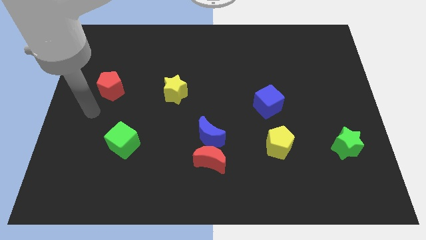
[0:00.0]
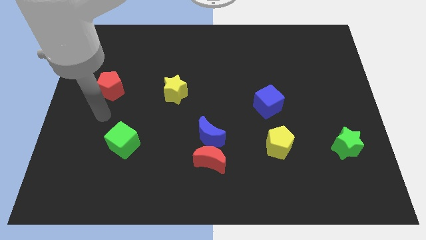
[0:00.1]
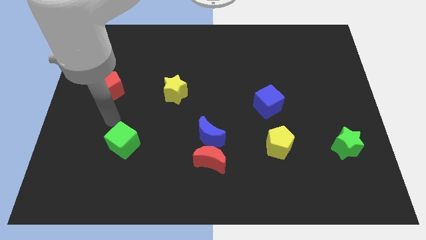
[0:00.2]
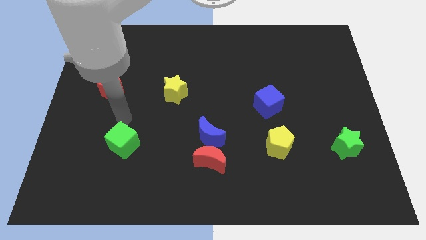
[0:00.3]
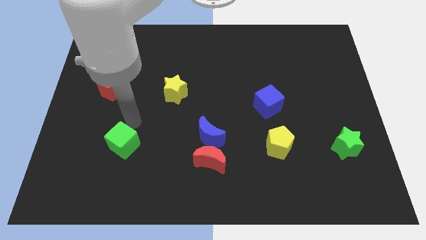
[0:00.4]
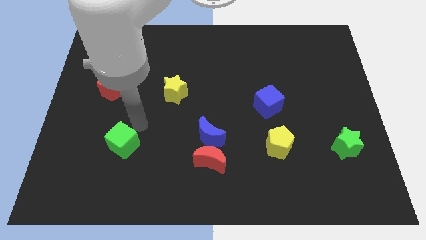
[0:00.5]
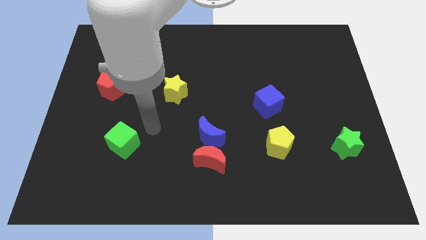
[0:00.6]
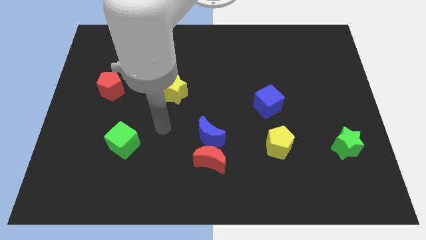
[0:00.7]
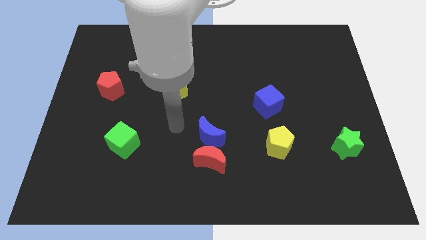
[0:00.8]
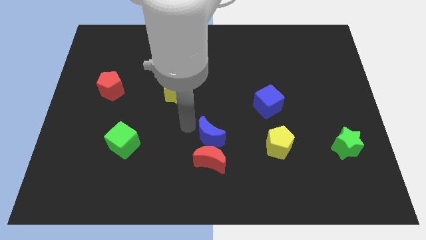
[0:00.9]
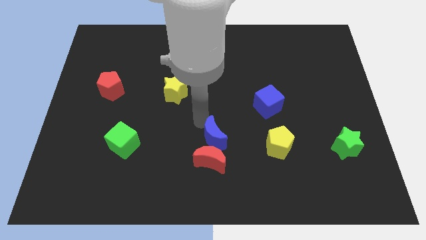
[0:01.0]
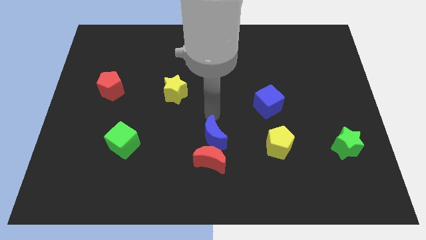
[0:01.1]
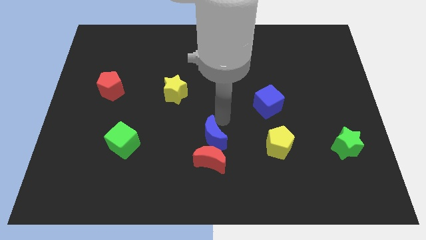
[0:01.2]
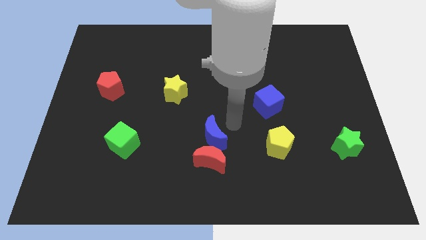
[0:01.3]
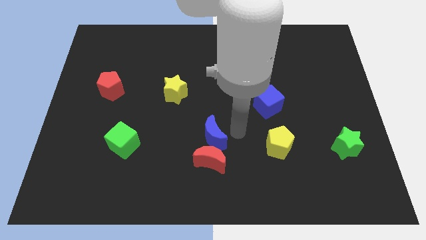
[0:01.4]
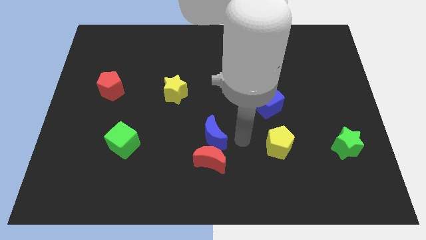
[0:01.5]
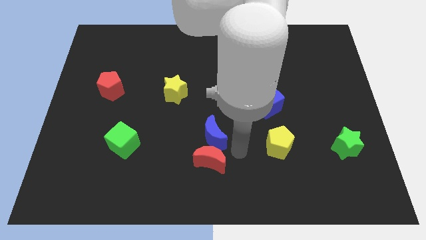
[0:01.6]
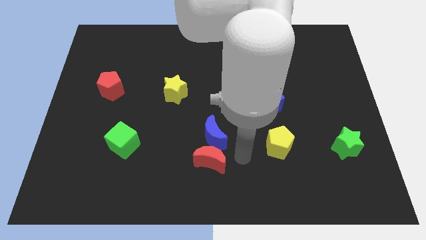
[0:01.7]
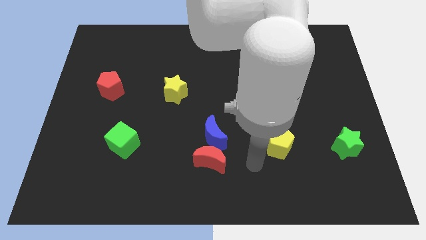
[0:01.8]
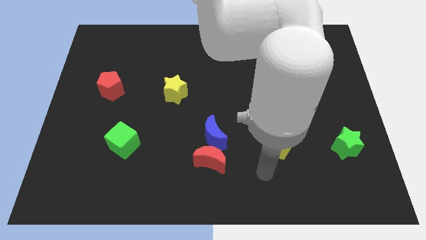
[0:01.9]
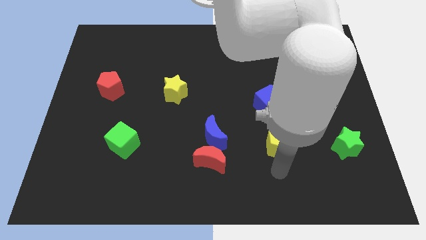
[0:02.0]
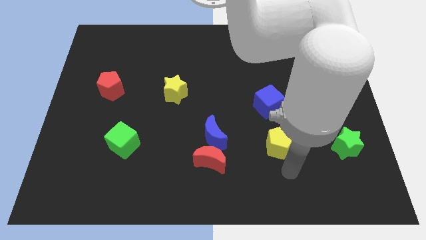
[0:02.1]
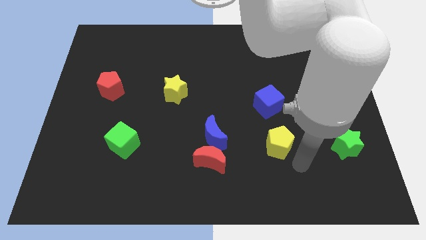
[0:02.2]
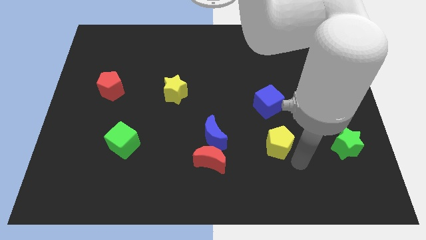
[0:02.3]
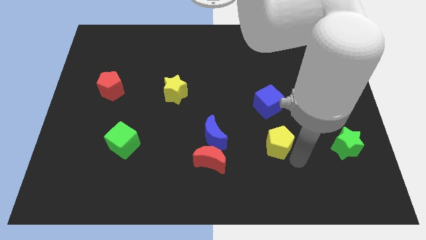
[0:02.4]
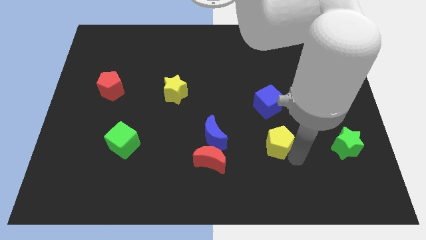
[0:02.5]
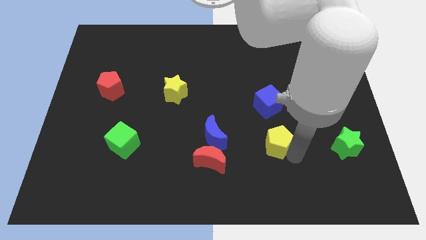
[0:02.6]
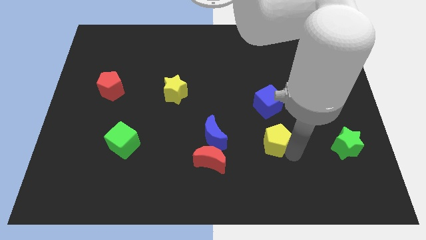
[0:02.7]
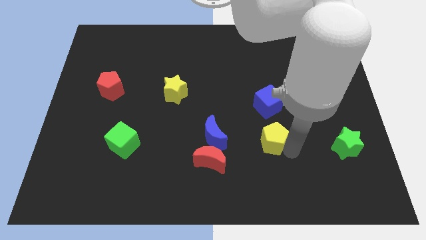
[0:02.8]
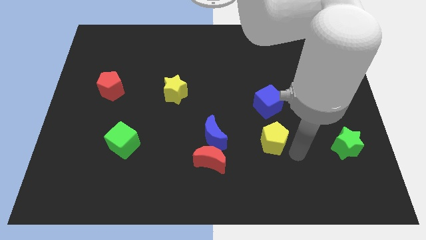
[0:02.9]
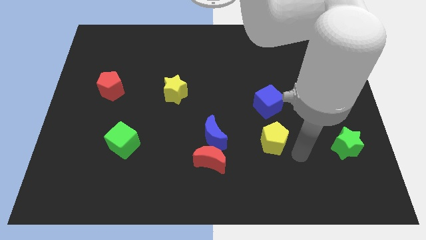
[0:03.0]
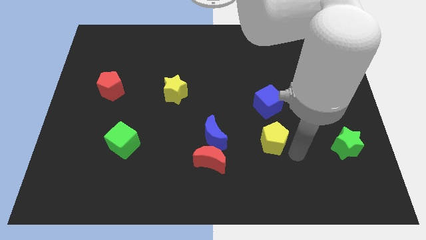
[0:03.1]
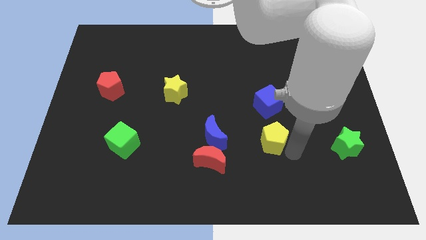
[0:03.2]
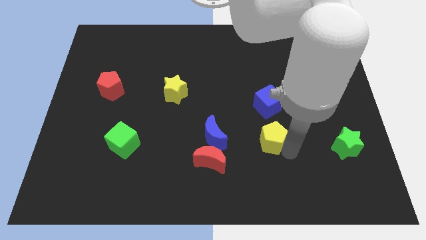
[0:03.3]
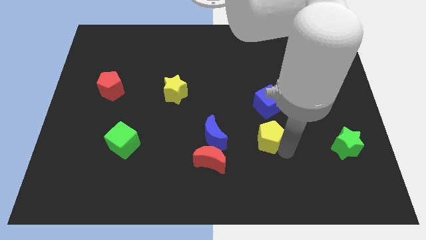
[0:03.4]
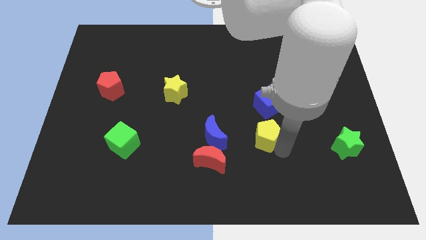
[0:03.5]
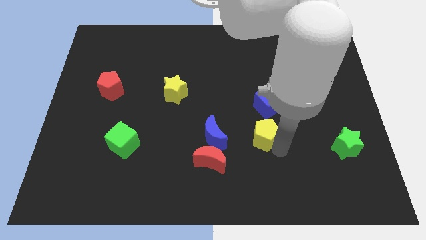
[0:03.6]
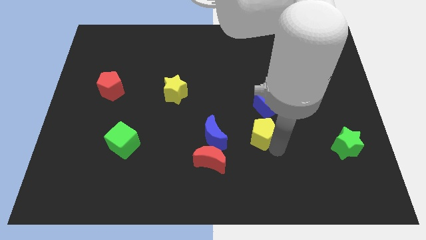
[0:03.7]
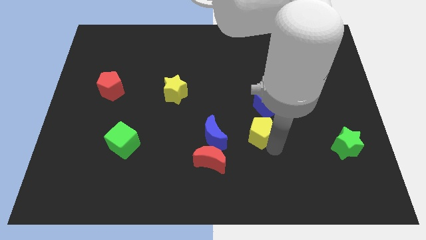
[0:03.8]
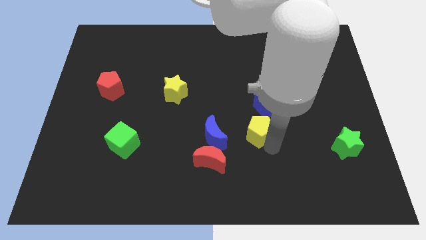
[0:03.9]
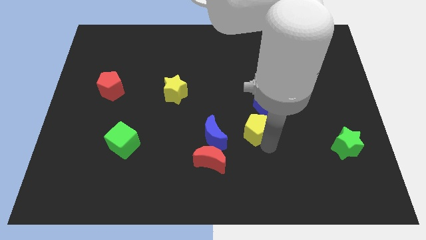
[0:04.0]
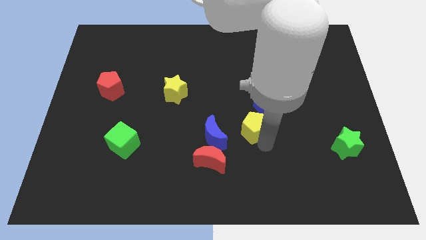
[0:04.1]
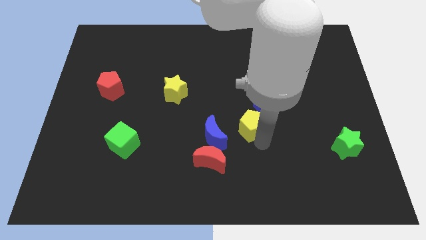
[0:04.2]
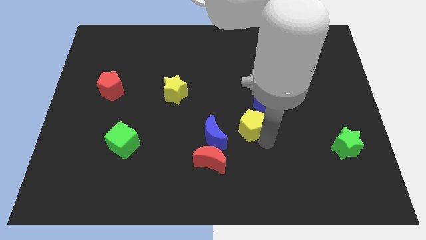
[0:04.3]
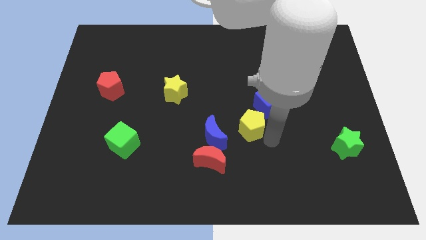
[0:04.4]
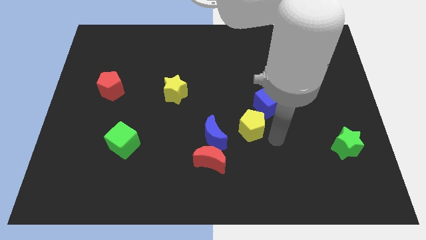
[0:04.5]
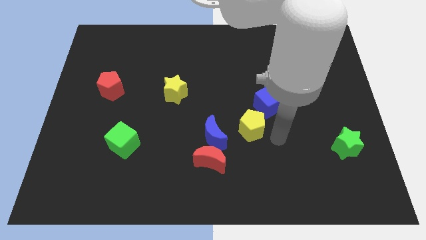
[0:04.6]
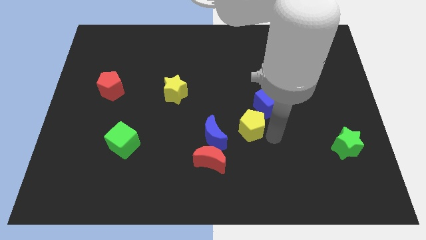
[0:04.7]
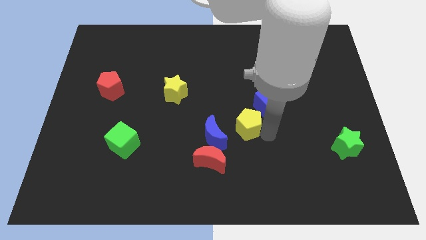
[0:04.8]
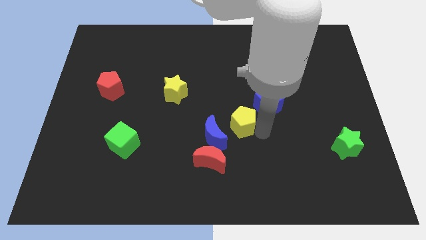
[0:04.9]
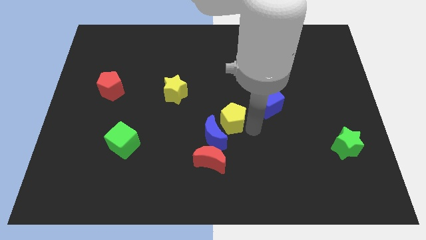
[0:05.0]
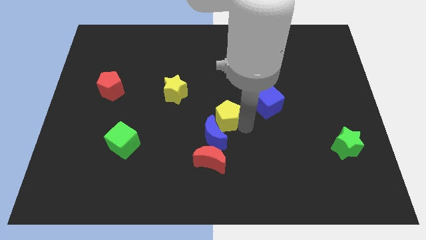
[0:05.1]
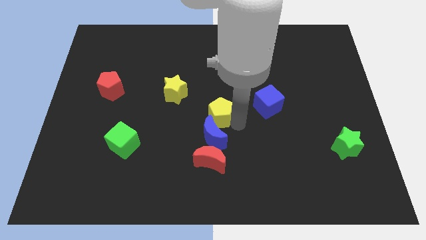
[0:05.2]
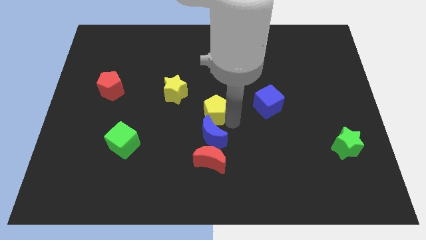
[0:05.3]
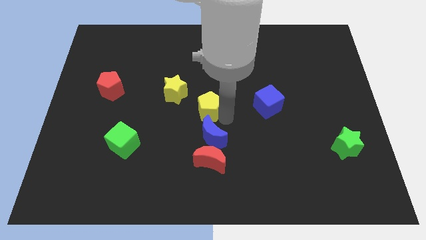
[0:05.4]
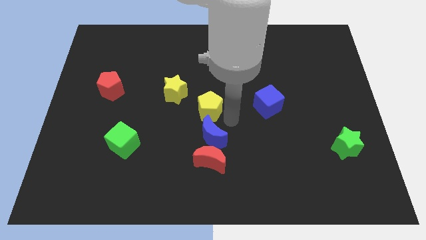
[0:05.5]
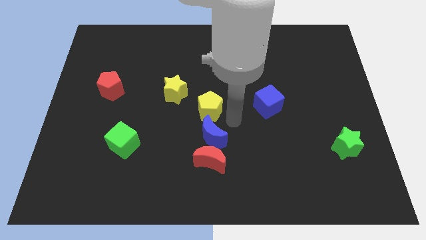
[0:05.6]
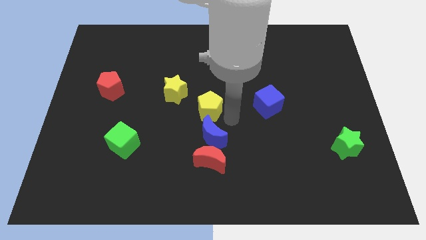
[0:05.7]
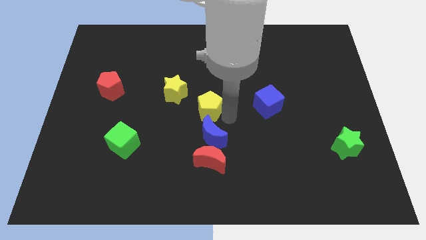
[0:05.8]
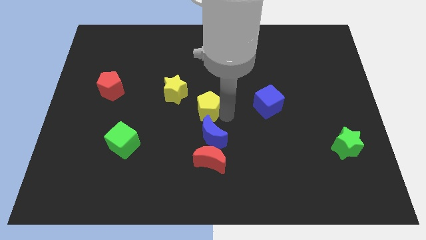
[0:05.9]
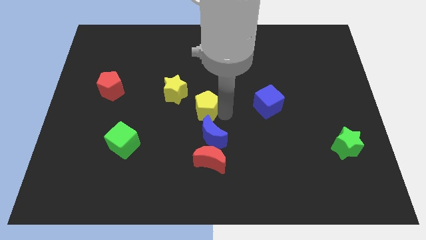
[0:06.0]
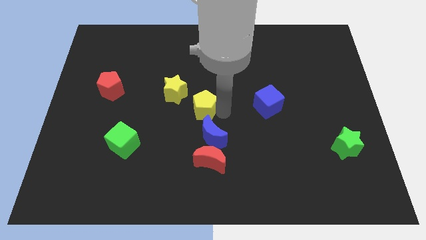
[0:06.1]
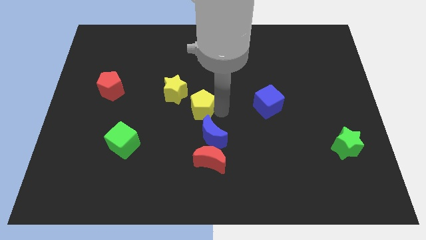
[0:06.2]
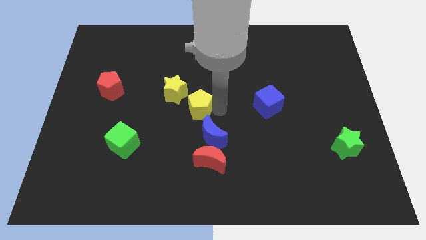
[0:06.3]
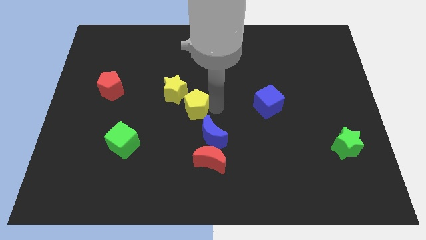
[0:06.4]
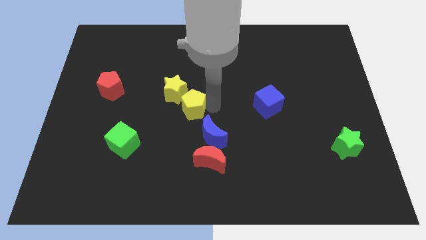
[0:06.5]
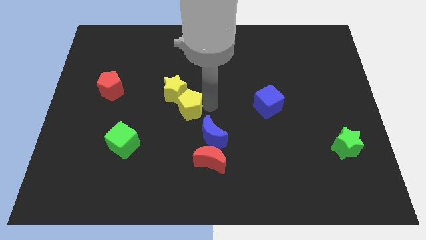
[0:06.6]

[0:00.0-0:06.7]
push the yellow pentagon next to the yellow star
